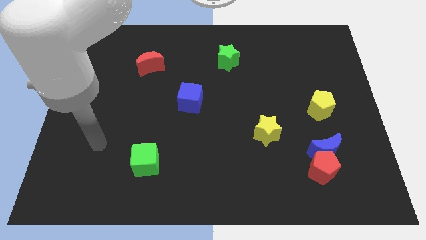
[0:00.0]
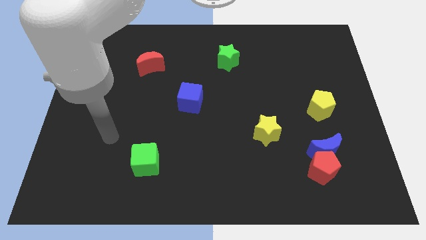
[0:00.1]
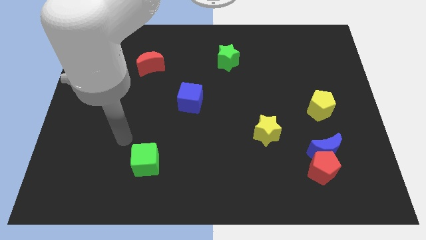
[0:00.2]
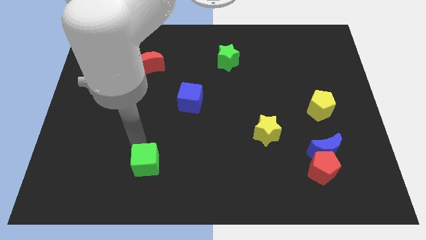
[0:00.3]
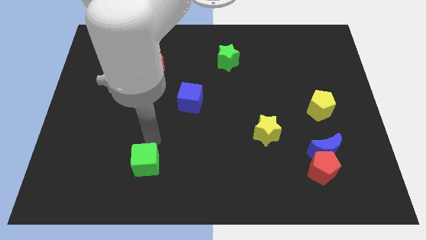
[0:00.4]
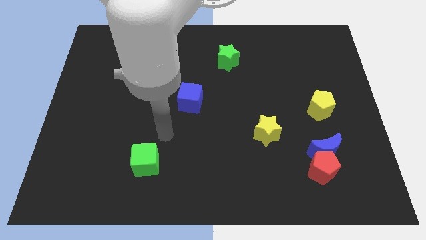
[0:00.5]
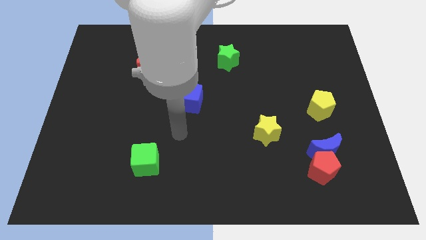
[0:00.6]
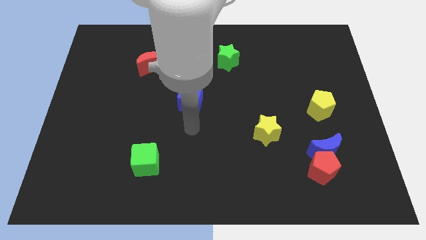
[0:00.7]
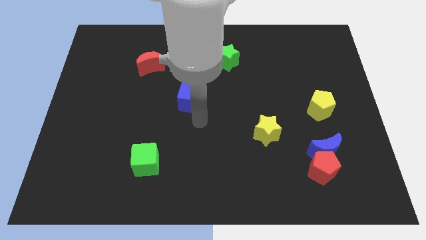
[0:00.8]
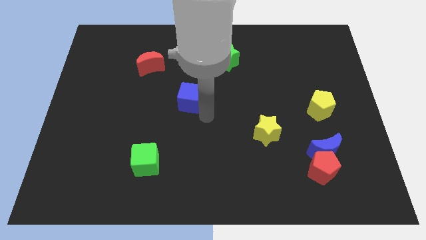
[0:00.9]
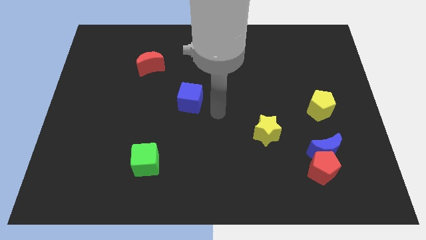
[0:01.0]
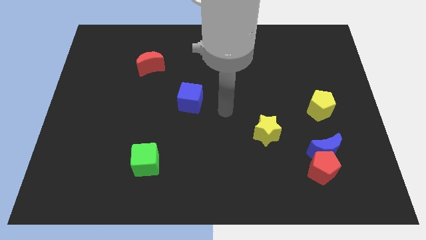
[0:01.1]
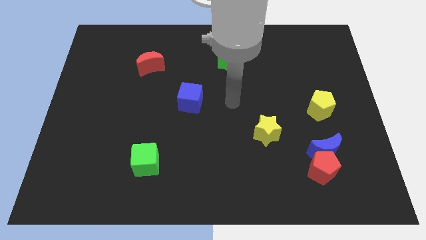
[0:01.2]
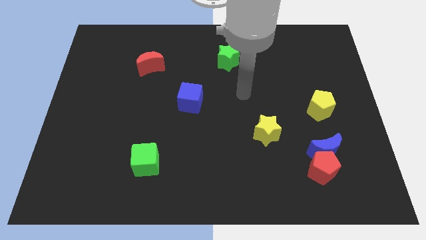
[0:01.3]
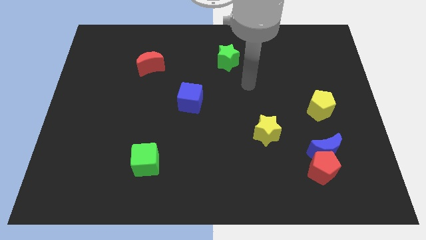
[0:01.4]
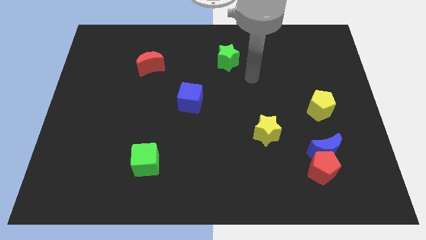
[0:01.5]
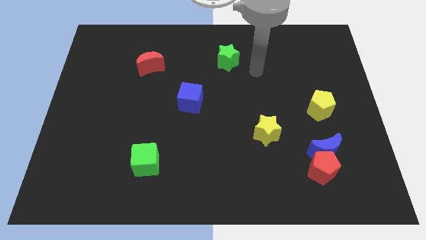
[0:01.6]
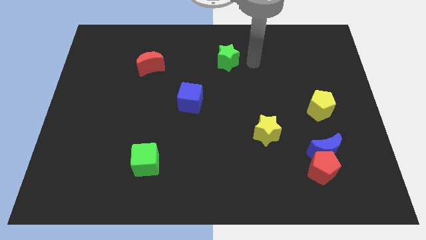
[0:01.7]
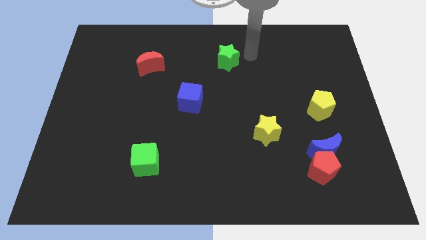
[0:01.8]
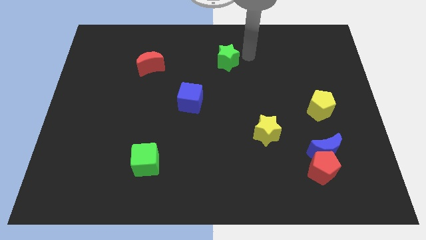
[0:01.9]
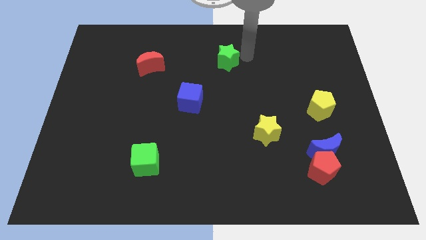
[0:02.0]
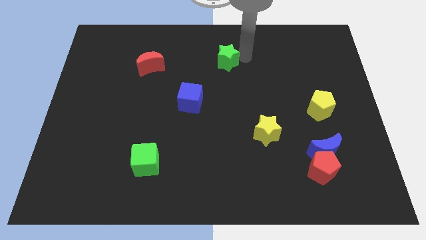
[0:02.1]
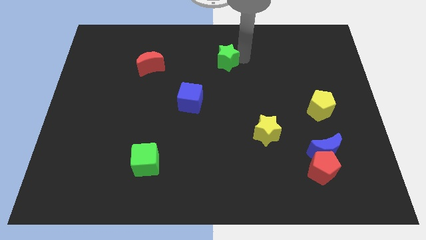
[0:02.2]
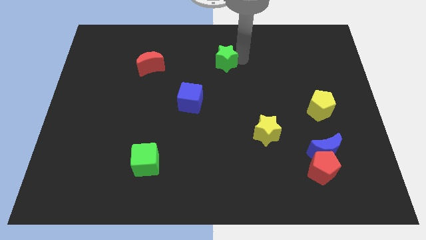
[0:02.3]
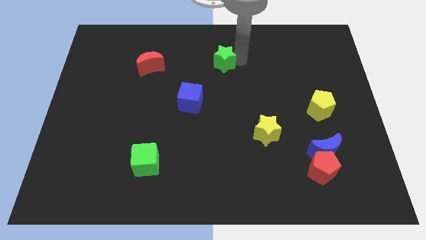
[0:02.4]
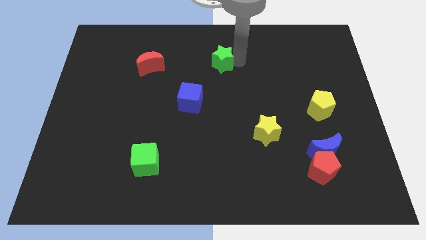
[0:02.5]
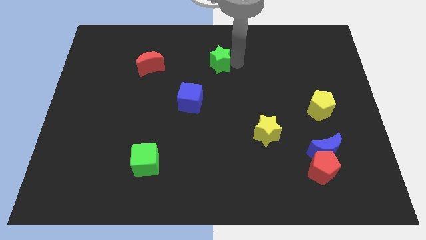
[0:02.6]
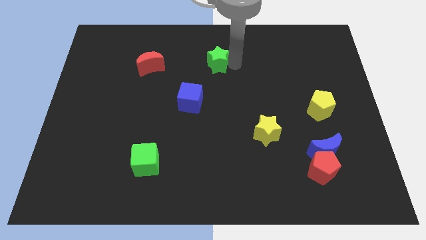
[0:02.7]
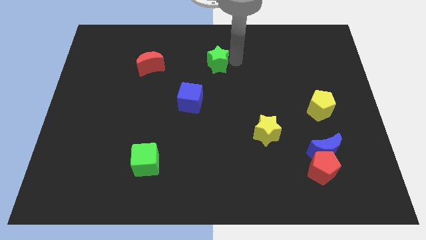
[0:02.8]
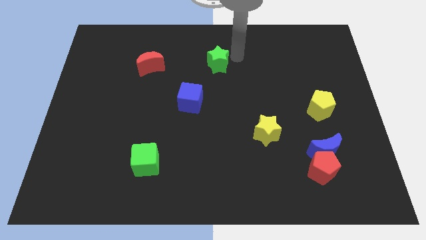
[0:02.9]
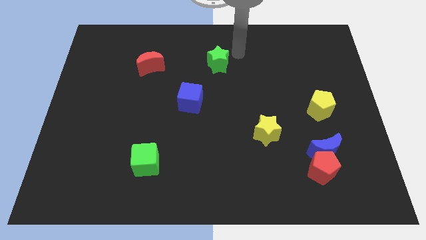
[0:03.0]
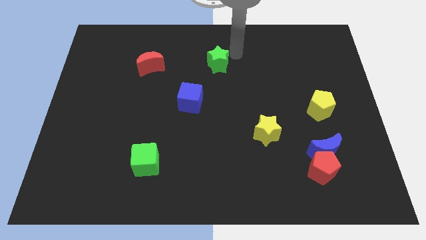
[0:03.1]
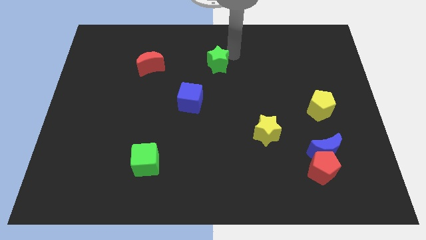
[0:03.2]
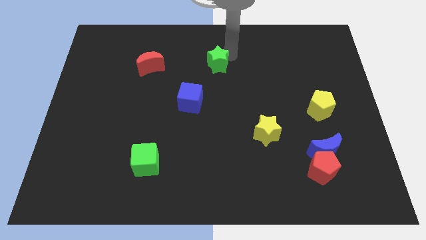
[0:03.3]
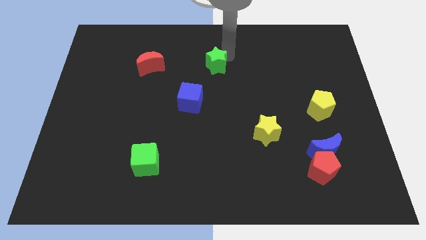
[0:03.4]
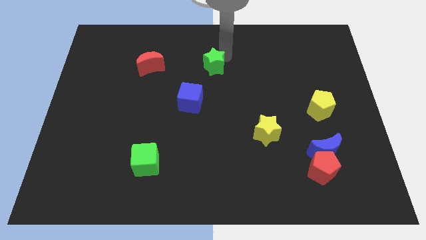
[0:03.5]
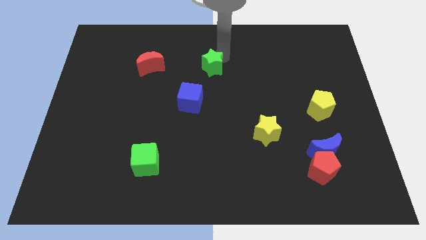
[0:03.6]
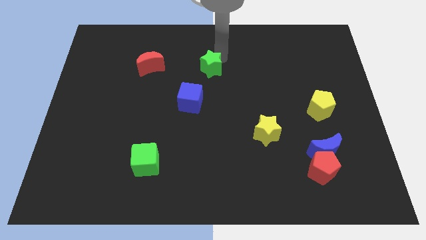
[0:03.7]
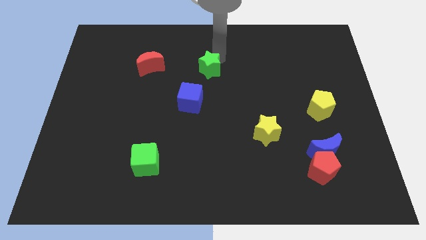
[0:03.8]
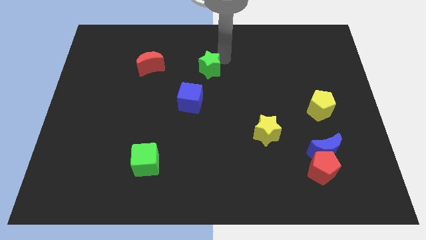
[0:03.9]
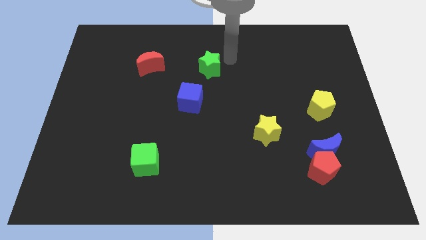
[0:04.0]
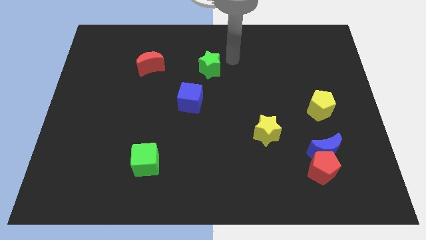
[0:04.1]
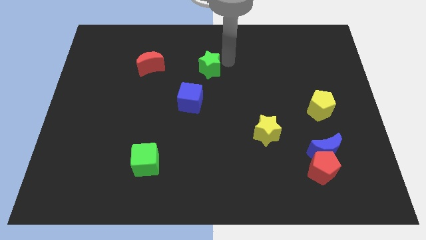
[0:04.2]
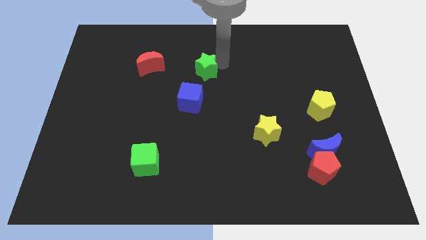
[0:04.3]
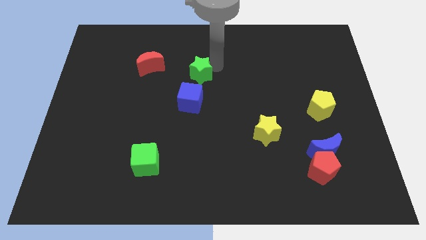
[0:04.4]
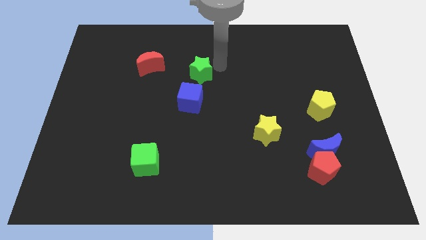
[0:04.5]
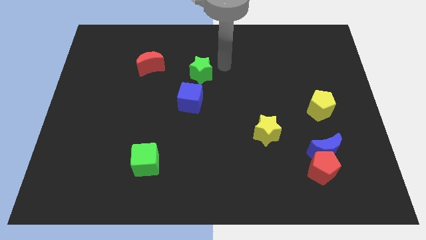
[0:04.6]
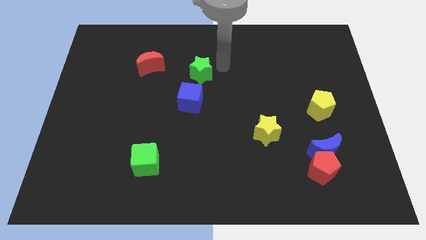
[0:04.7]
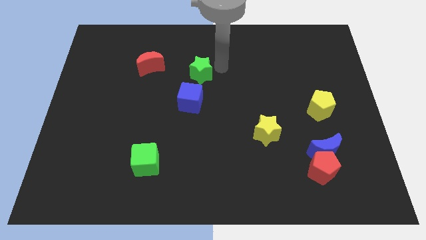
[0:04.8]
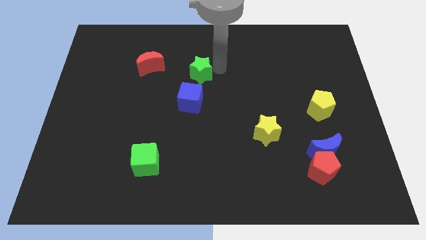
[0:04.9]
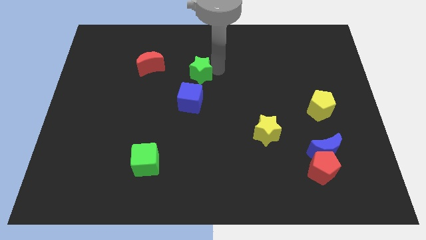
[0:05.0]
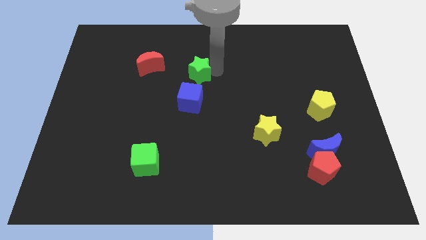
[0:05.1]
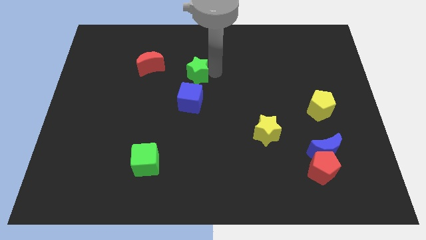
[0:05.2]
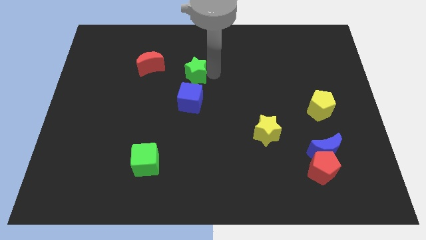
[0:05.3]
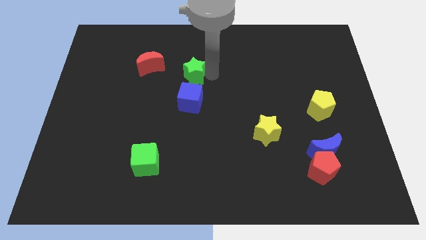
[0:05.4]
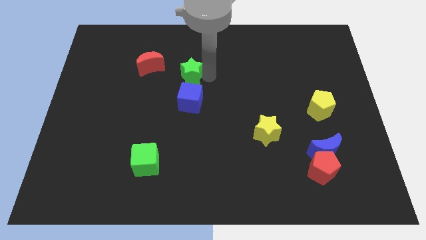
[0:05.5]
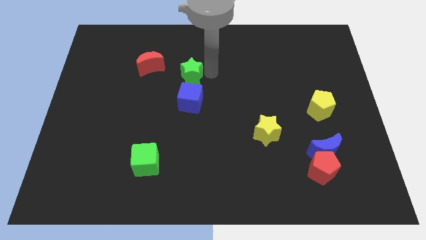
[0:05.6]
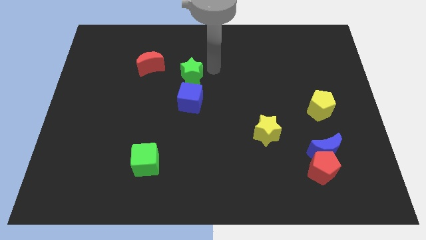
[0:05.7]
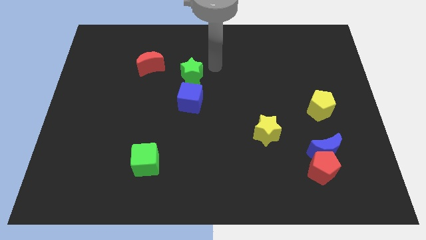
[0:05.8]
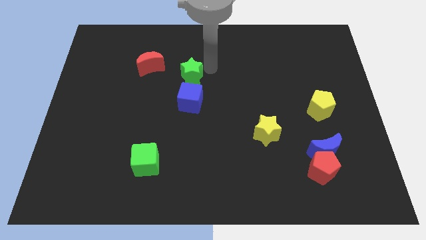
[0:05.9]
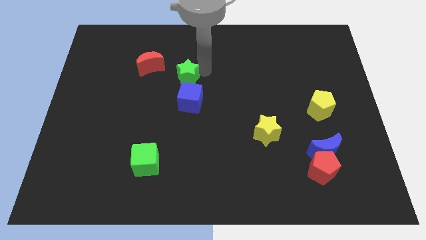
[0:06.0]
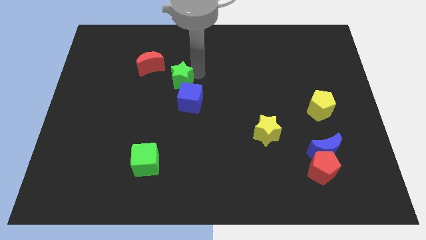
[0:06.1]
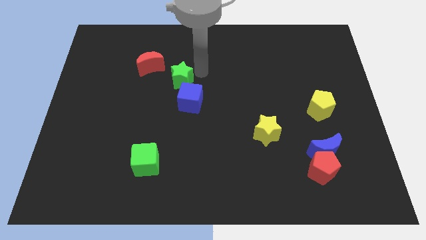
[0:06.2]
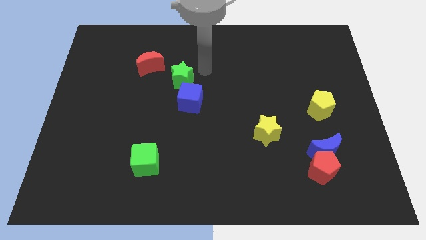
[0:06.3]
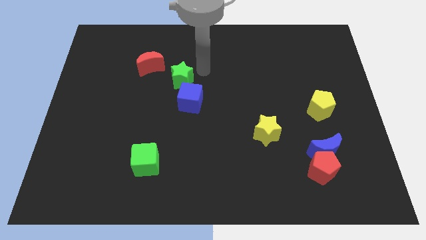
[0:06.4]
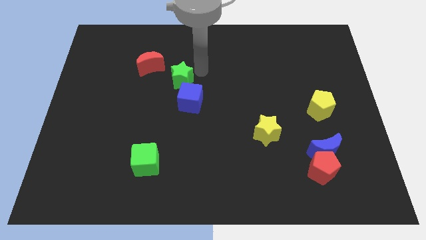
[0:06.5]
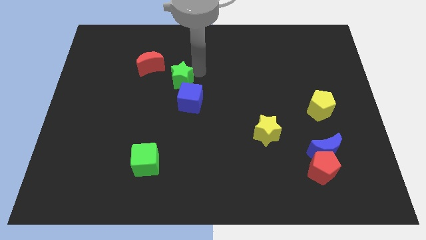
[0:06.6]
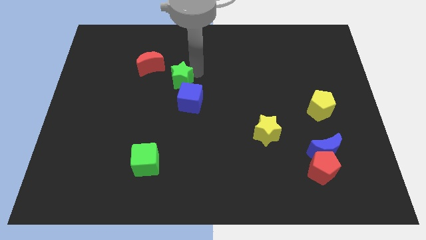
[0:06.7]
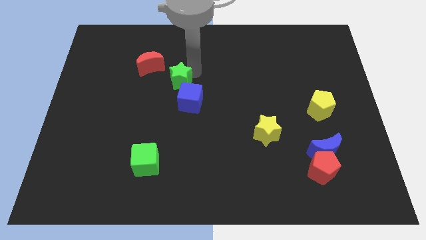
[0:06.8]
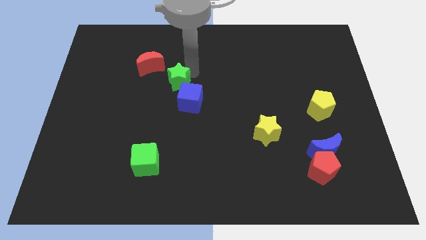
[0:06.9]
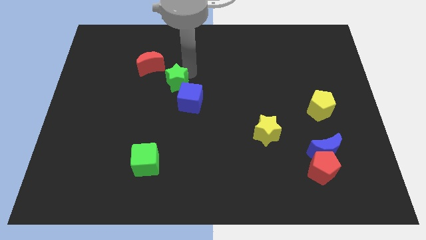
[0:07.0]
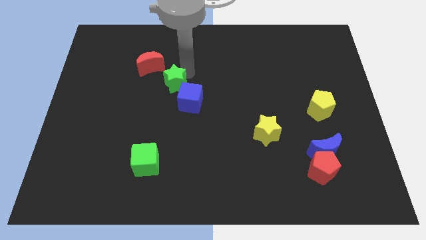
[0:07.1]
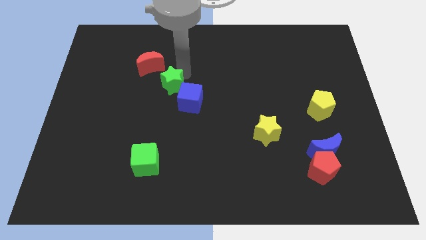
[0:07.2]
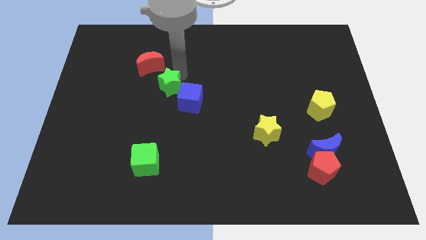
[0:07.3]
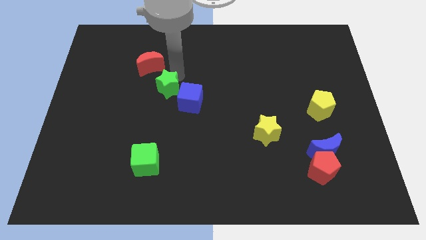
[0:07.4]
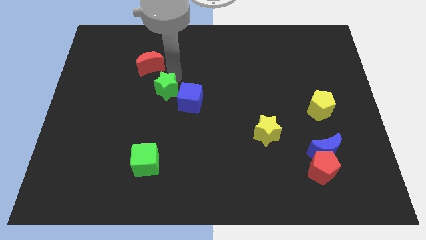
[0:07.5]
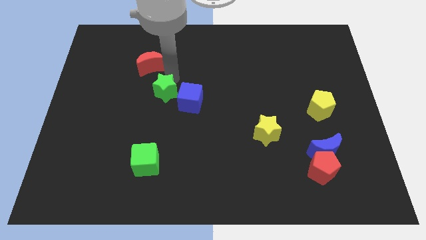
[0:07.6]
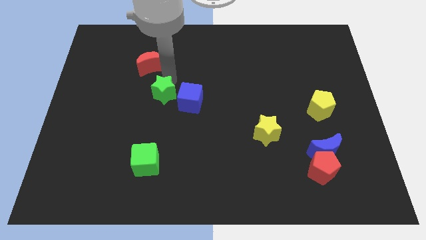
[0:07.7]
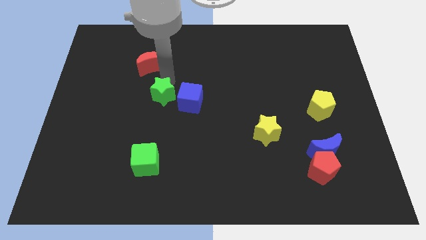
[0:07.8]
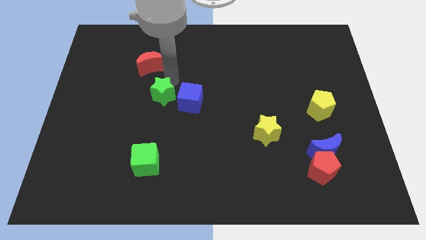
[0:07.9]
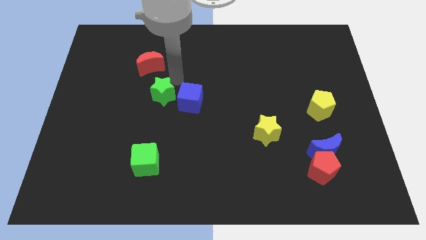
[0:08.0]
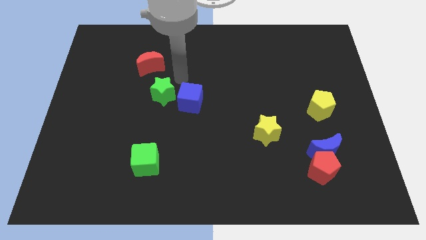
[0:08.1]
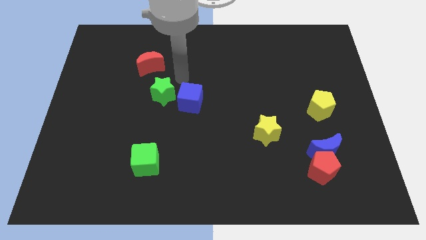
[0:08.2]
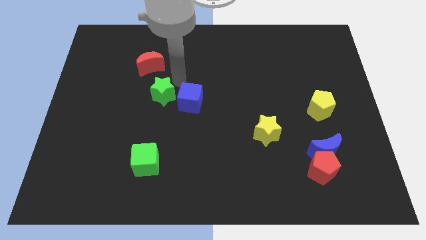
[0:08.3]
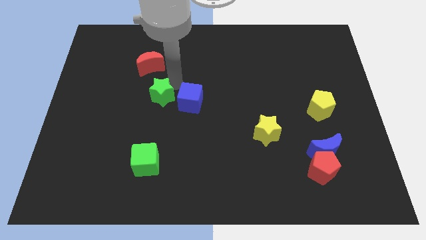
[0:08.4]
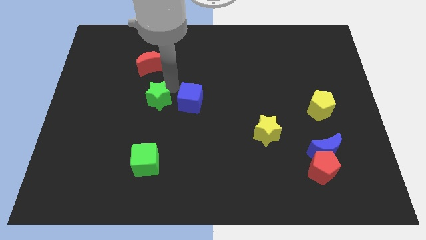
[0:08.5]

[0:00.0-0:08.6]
move the green star downwards and left diagonally
